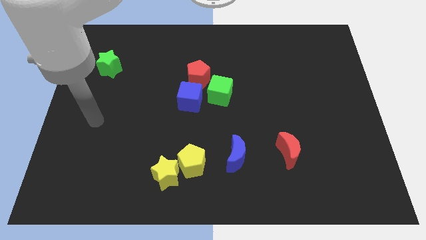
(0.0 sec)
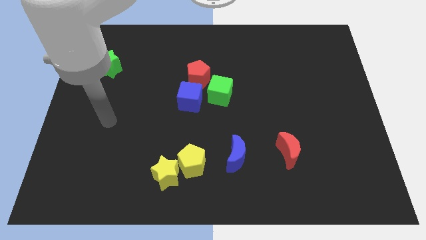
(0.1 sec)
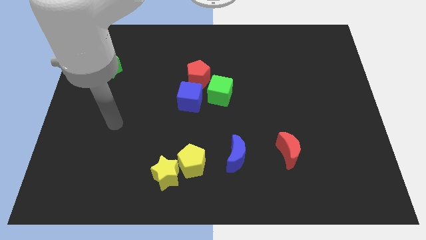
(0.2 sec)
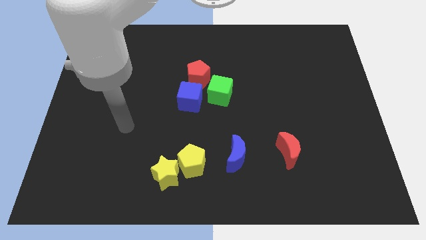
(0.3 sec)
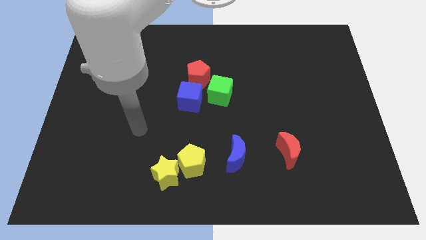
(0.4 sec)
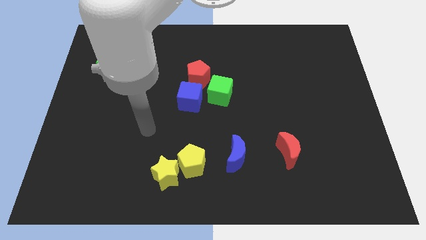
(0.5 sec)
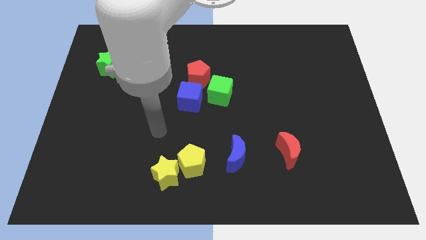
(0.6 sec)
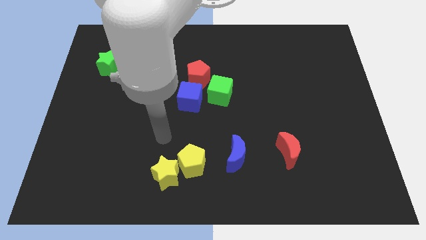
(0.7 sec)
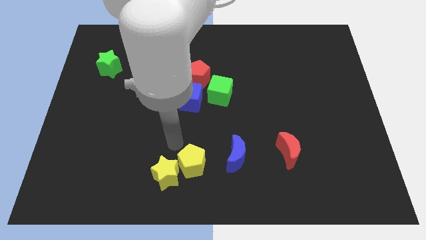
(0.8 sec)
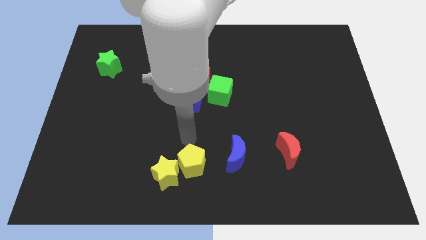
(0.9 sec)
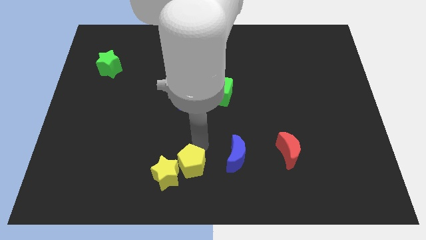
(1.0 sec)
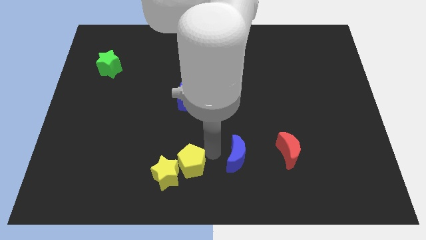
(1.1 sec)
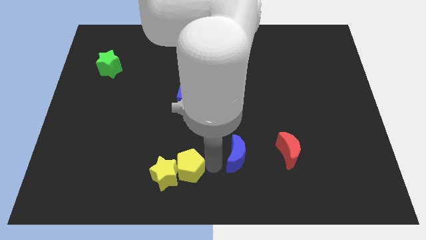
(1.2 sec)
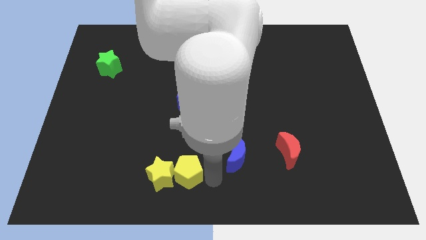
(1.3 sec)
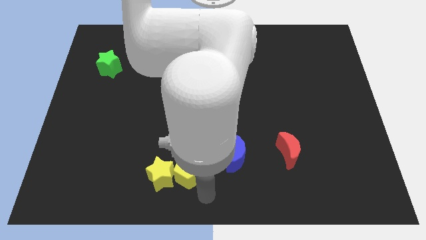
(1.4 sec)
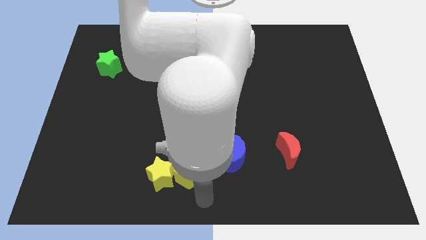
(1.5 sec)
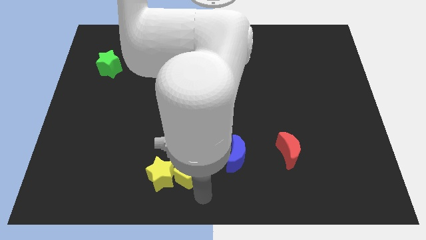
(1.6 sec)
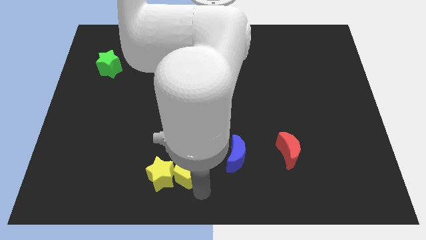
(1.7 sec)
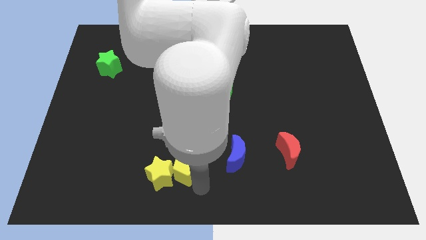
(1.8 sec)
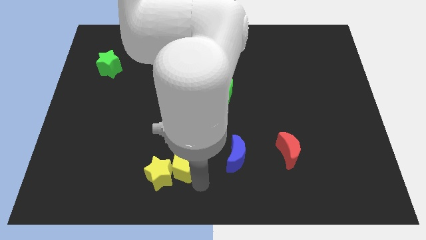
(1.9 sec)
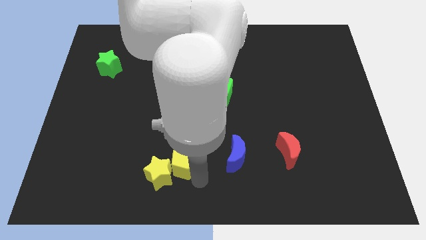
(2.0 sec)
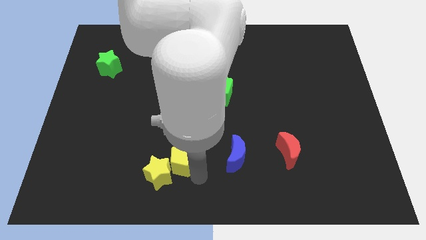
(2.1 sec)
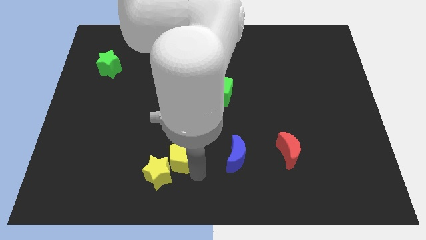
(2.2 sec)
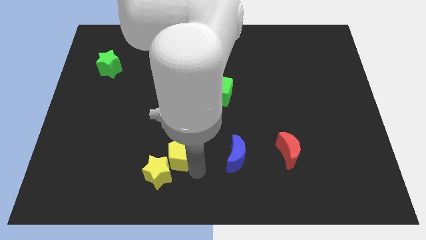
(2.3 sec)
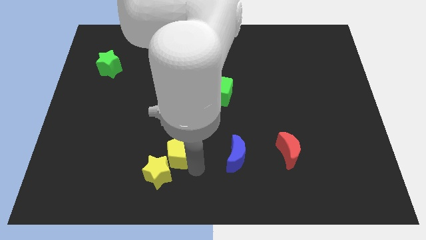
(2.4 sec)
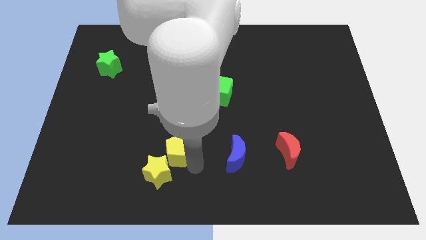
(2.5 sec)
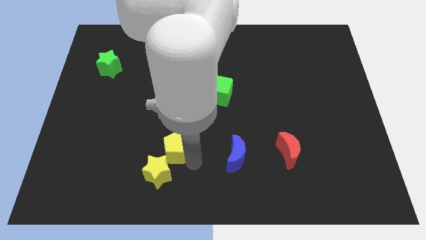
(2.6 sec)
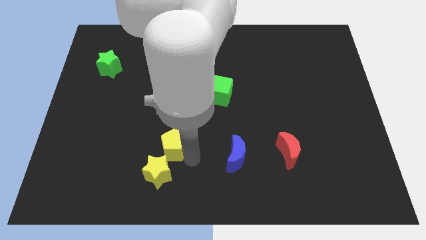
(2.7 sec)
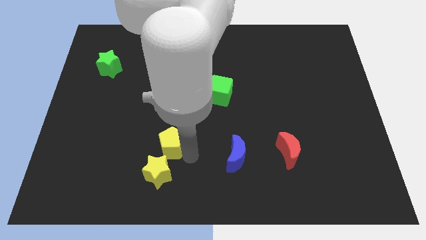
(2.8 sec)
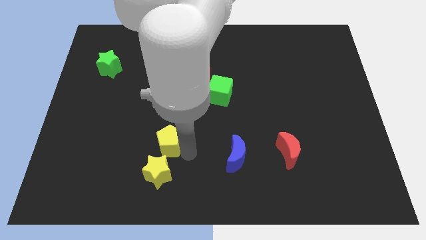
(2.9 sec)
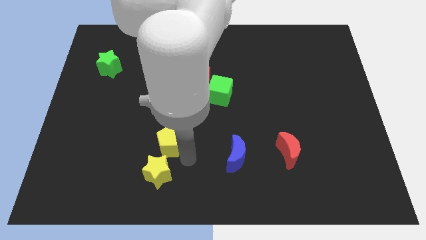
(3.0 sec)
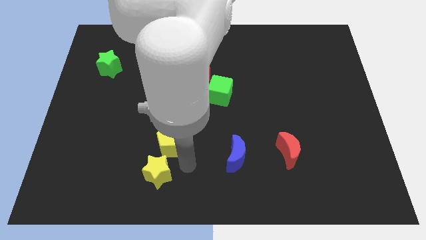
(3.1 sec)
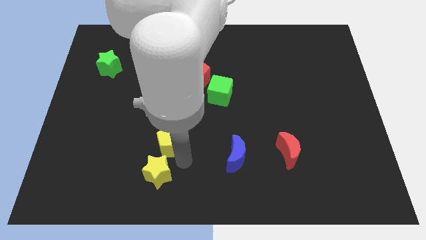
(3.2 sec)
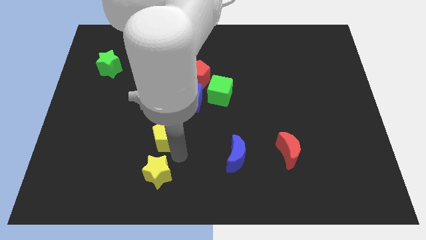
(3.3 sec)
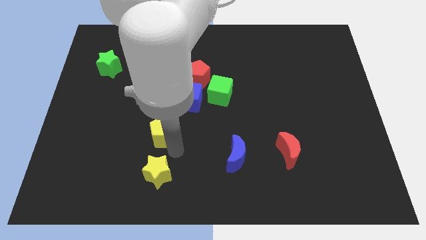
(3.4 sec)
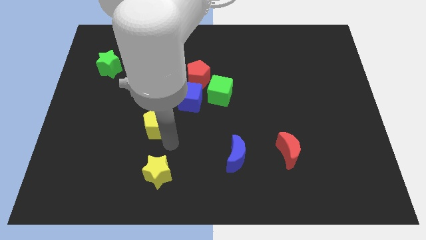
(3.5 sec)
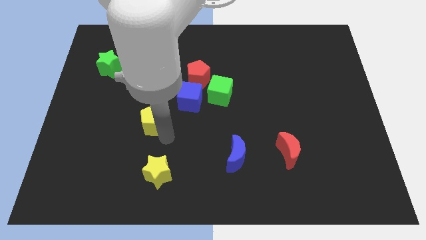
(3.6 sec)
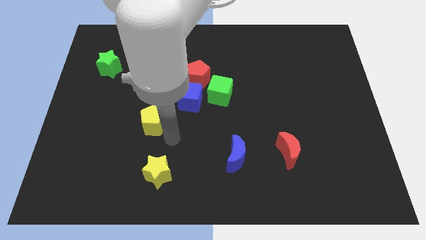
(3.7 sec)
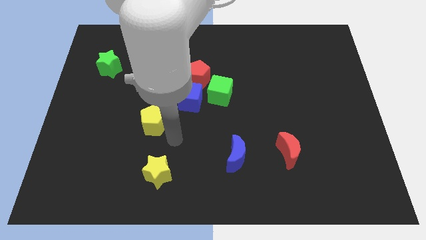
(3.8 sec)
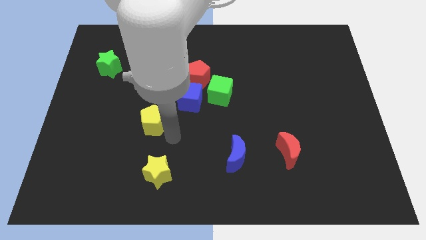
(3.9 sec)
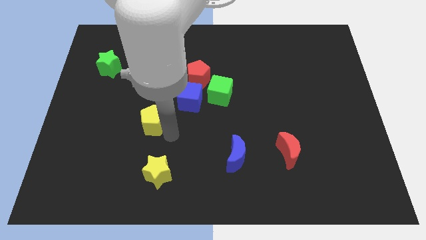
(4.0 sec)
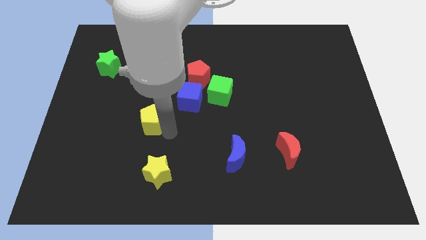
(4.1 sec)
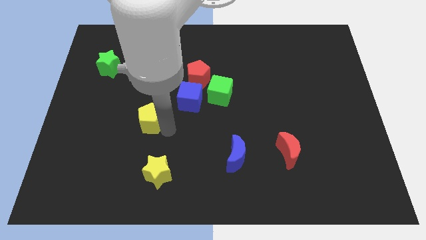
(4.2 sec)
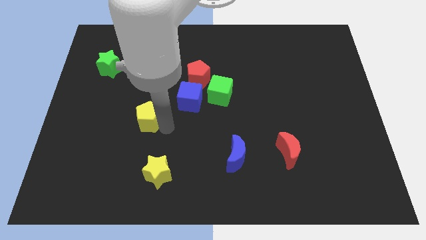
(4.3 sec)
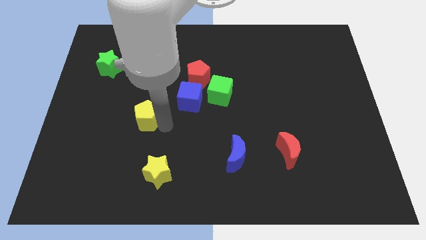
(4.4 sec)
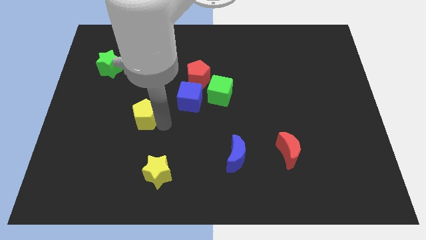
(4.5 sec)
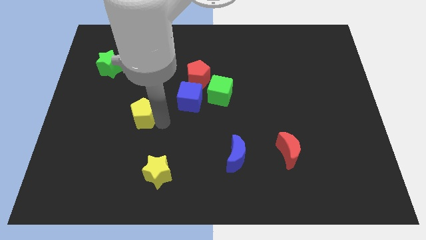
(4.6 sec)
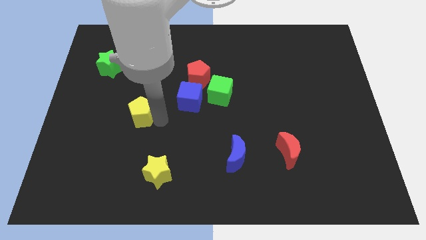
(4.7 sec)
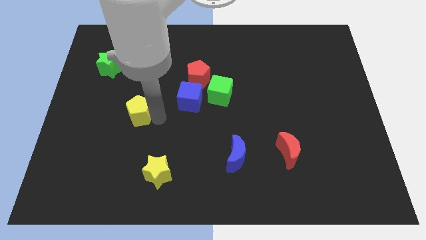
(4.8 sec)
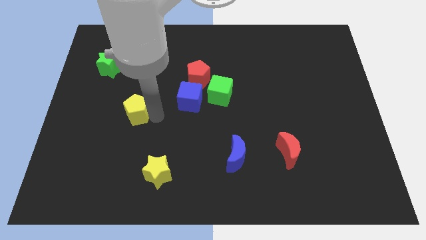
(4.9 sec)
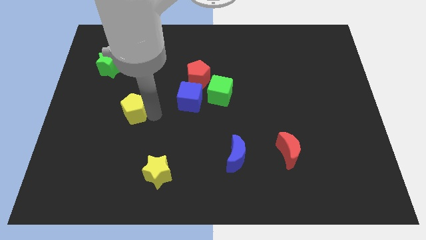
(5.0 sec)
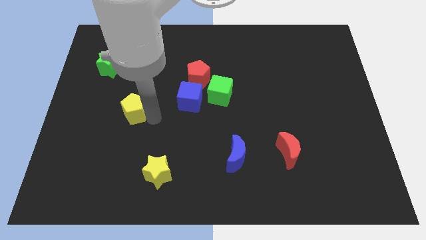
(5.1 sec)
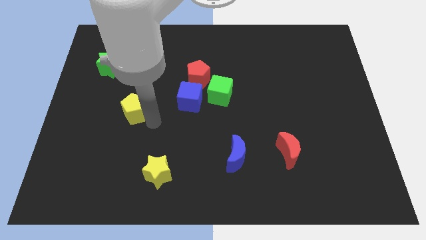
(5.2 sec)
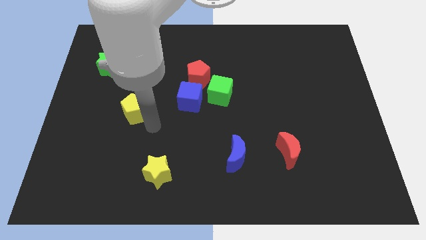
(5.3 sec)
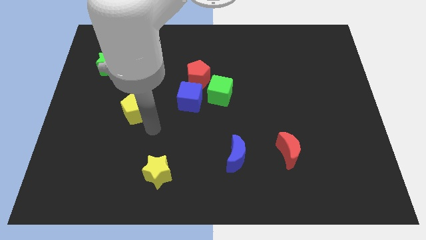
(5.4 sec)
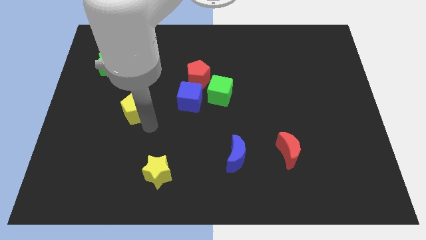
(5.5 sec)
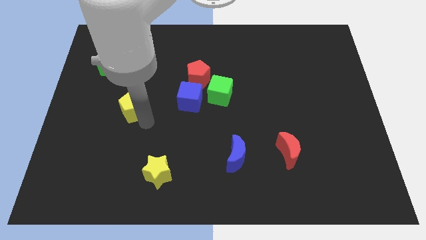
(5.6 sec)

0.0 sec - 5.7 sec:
move the yellow pentagon up and left diagonally

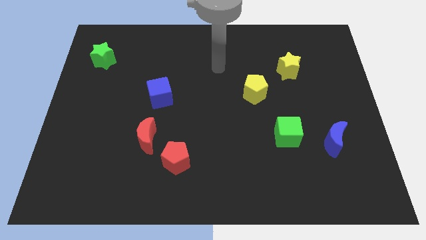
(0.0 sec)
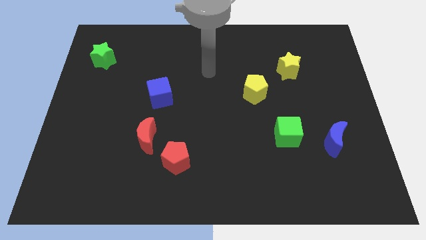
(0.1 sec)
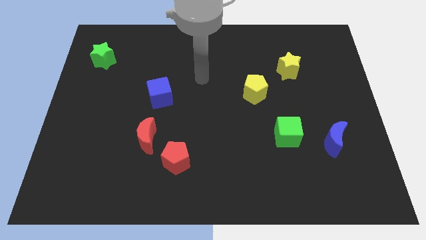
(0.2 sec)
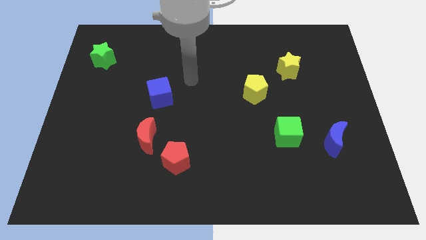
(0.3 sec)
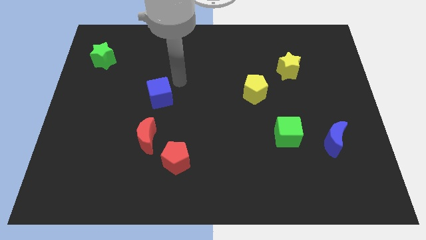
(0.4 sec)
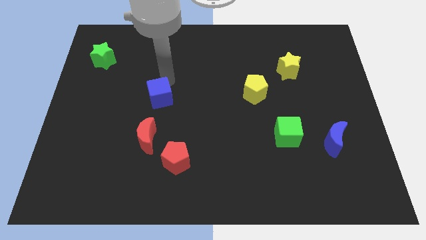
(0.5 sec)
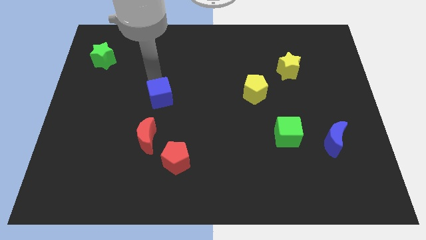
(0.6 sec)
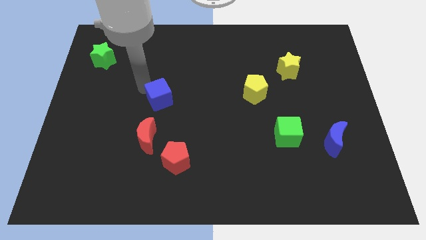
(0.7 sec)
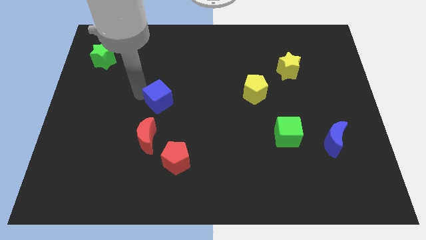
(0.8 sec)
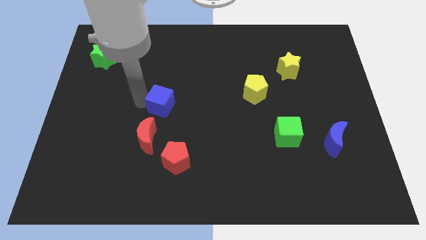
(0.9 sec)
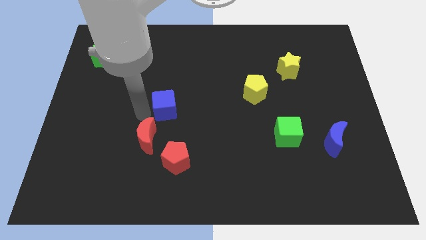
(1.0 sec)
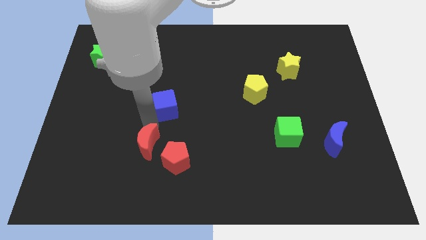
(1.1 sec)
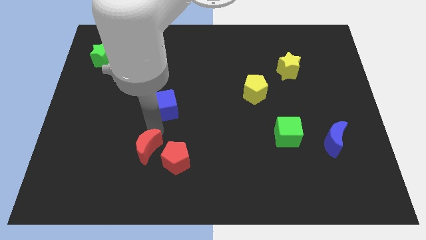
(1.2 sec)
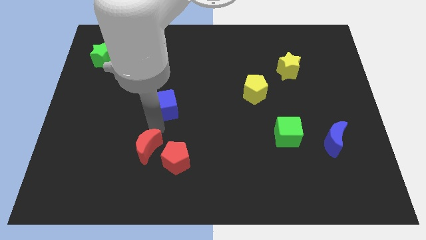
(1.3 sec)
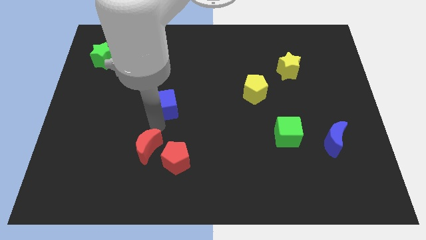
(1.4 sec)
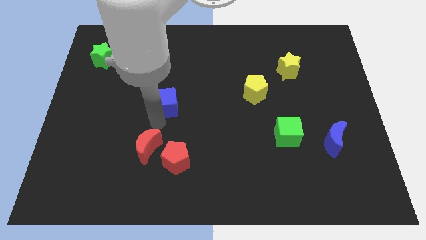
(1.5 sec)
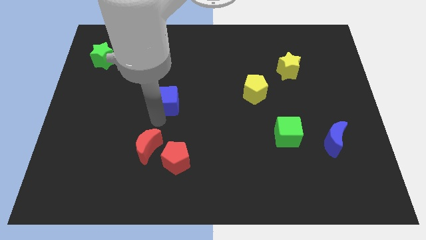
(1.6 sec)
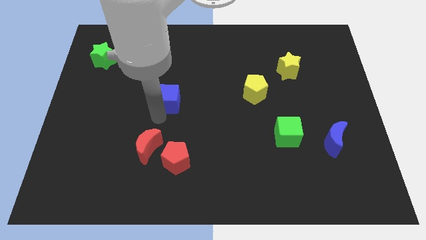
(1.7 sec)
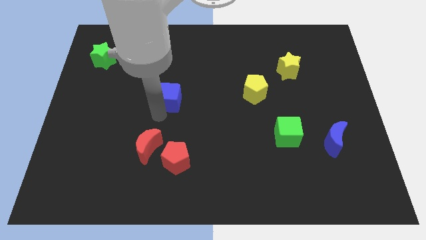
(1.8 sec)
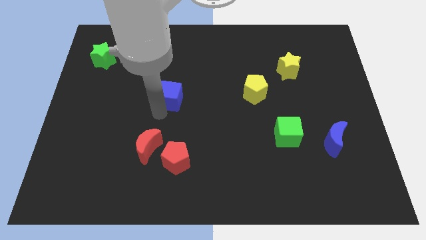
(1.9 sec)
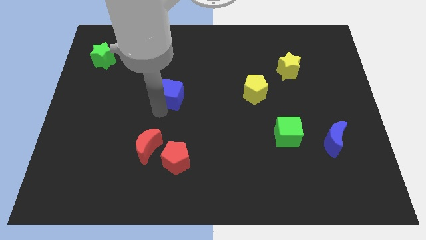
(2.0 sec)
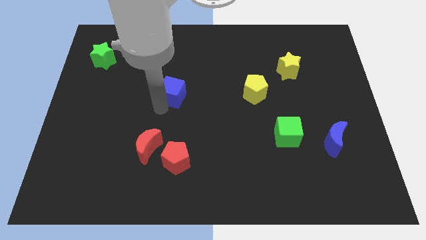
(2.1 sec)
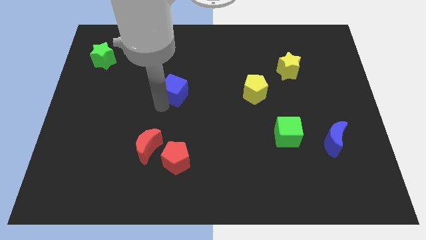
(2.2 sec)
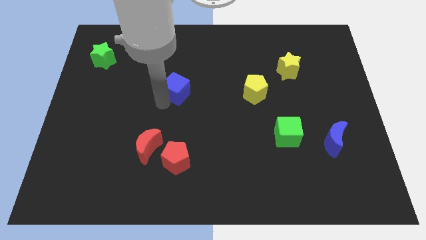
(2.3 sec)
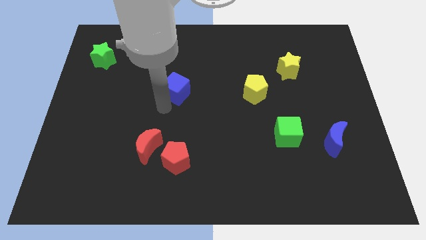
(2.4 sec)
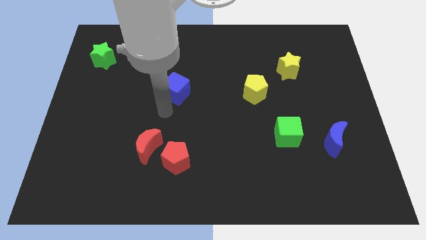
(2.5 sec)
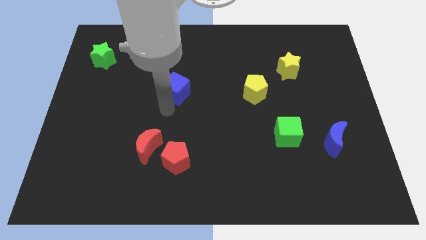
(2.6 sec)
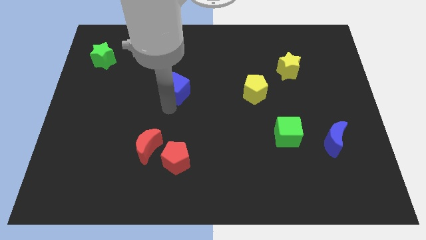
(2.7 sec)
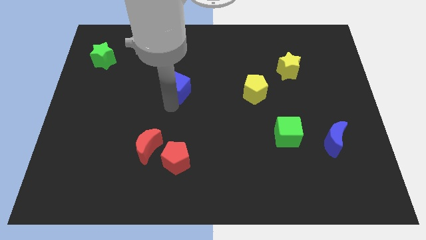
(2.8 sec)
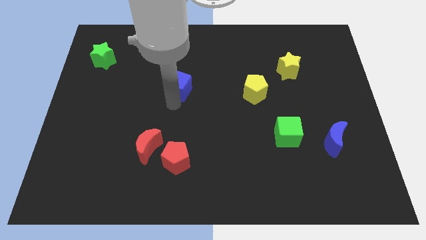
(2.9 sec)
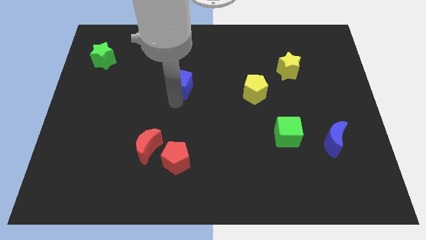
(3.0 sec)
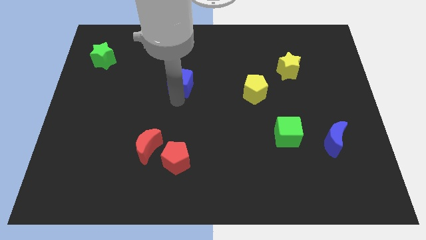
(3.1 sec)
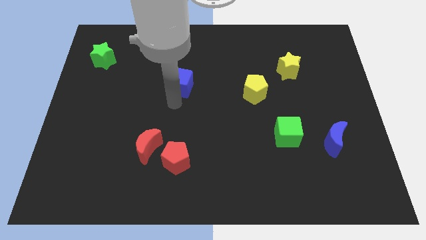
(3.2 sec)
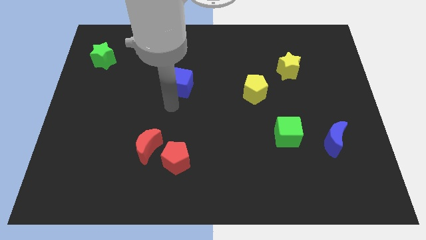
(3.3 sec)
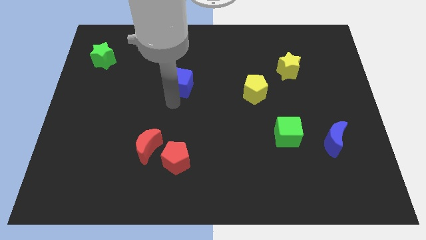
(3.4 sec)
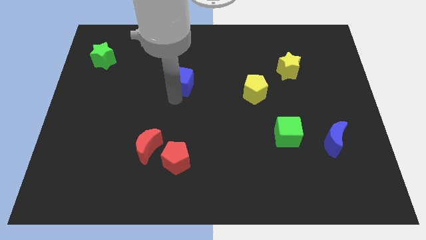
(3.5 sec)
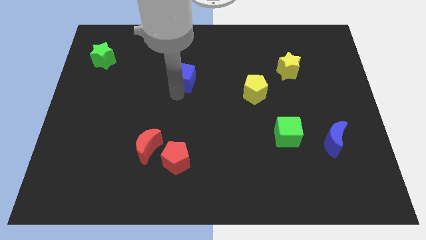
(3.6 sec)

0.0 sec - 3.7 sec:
push the blue cube somewhat up and right
